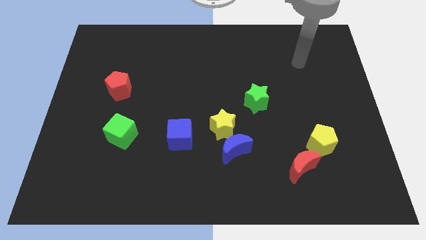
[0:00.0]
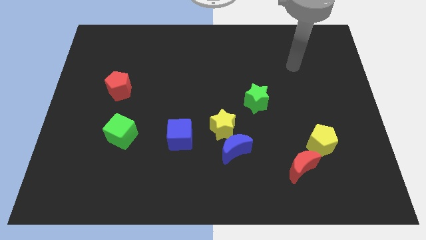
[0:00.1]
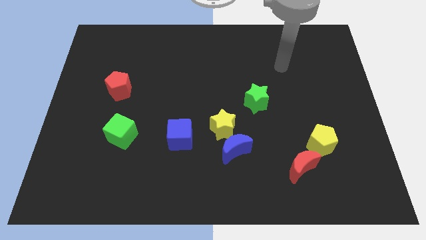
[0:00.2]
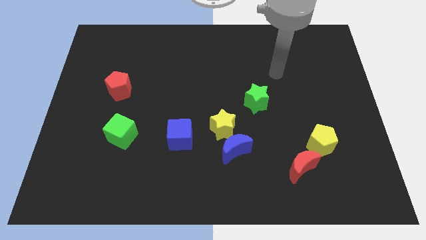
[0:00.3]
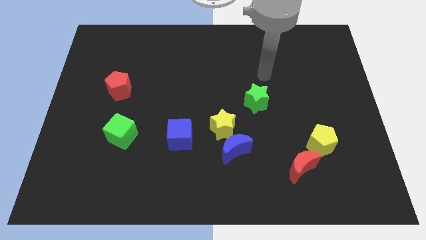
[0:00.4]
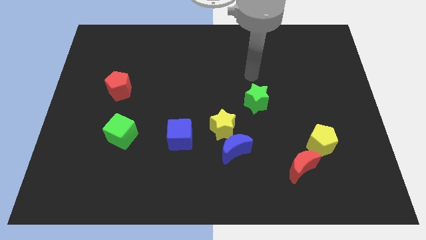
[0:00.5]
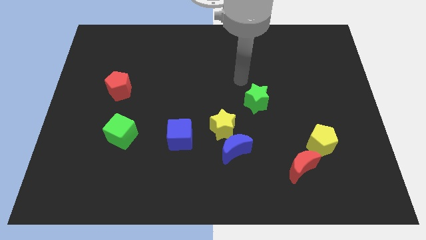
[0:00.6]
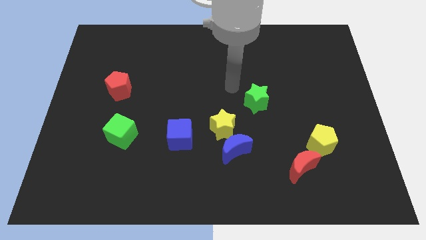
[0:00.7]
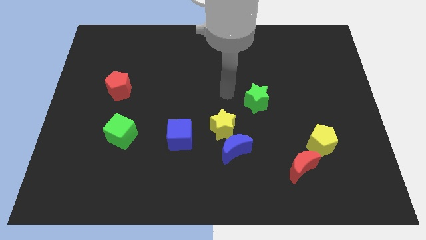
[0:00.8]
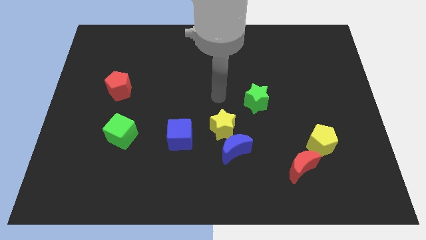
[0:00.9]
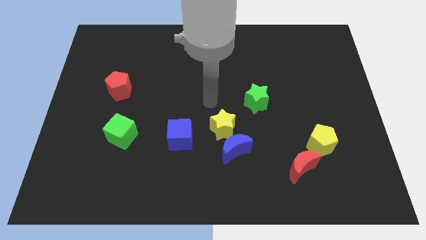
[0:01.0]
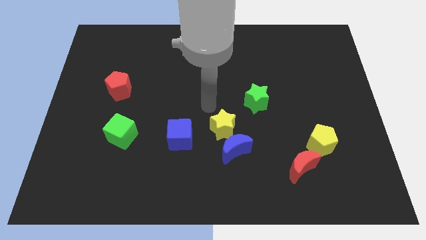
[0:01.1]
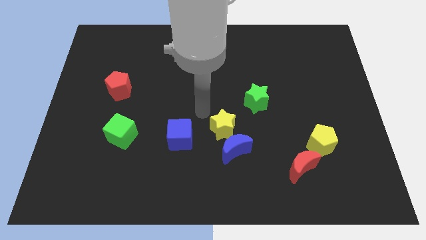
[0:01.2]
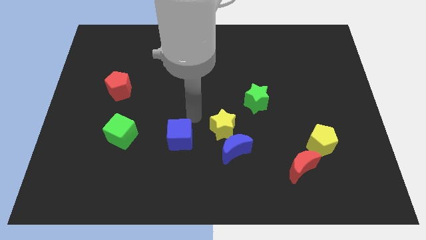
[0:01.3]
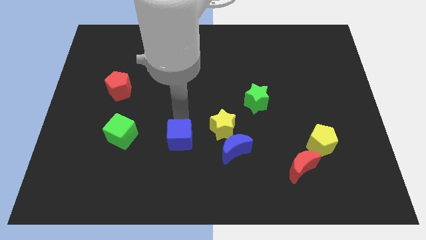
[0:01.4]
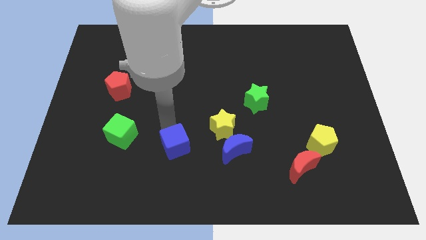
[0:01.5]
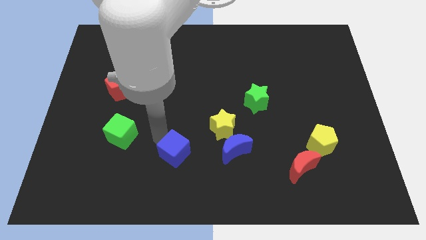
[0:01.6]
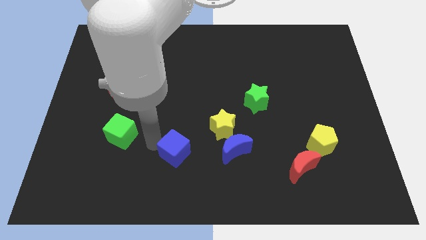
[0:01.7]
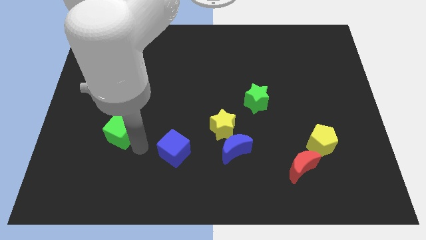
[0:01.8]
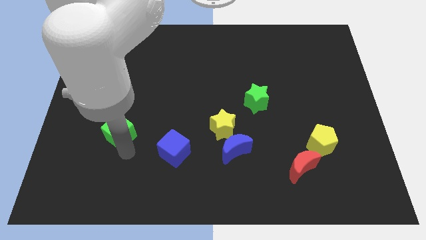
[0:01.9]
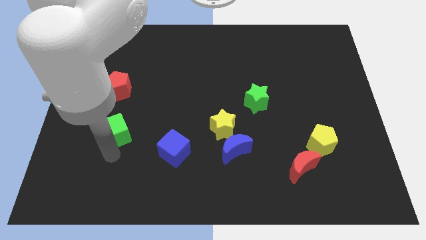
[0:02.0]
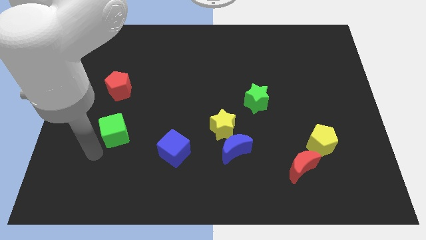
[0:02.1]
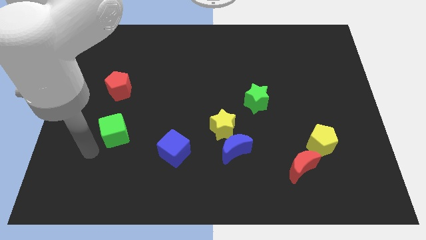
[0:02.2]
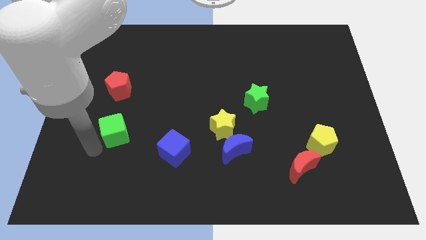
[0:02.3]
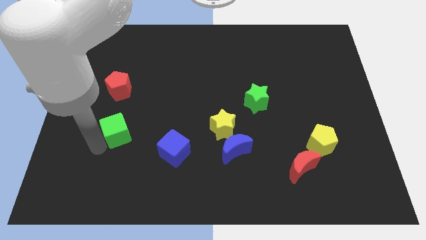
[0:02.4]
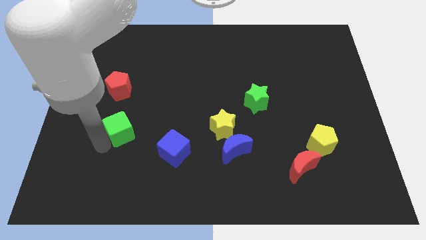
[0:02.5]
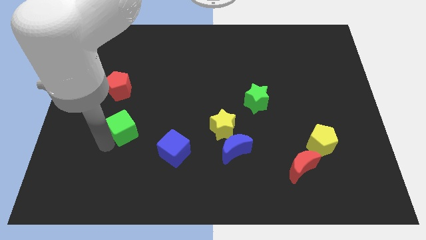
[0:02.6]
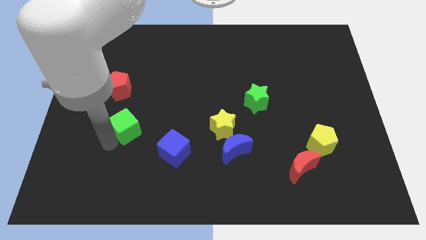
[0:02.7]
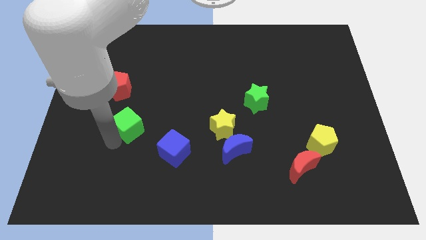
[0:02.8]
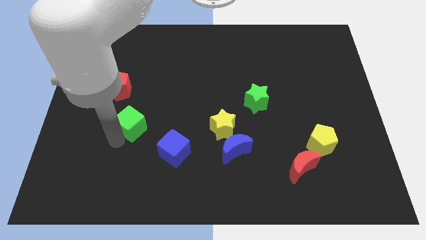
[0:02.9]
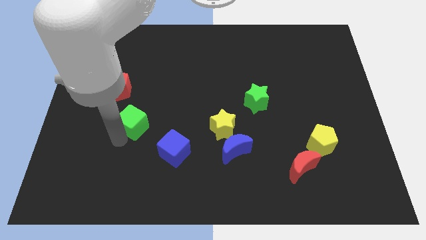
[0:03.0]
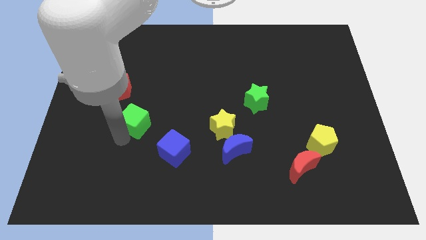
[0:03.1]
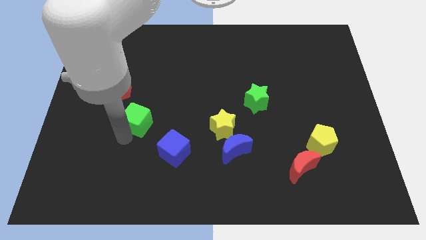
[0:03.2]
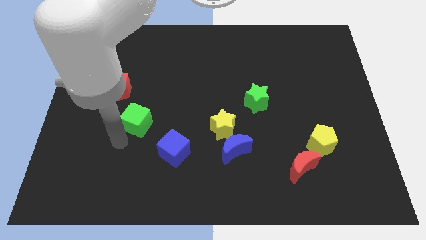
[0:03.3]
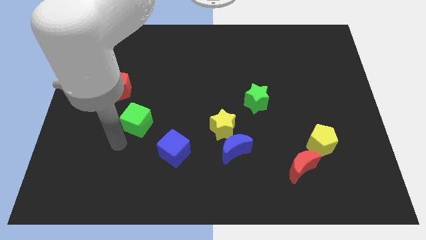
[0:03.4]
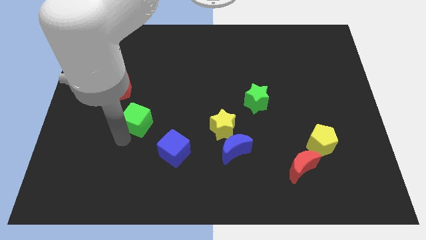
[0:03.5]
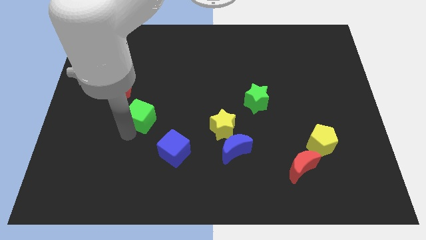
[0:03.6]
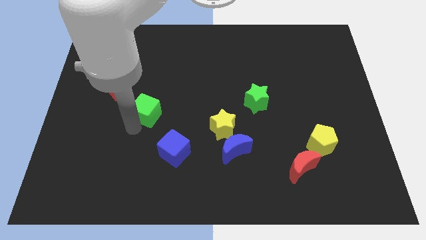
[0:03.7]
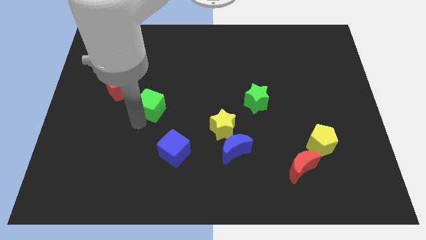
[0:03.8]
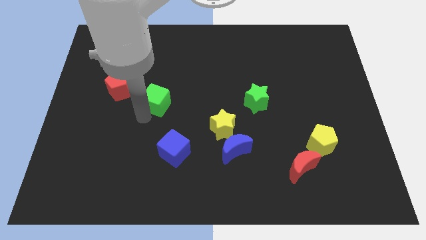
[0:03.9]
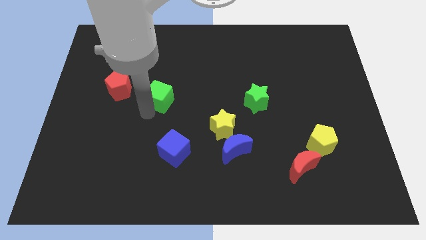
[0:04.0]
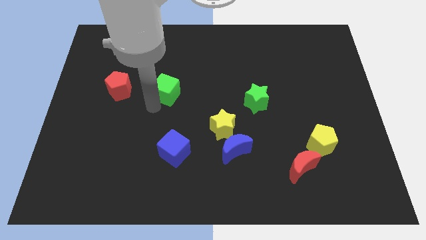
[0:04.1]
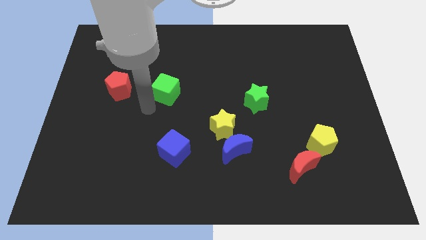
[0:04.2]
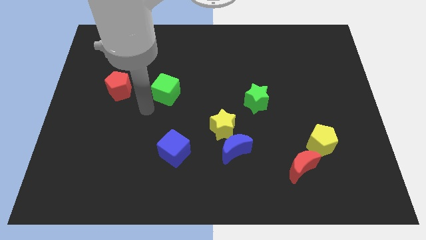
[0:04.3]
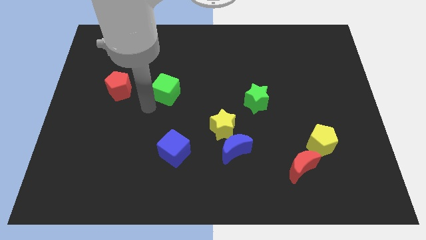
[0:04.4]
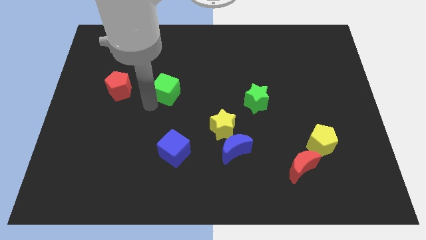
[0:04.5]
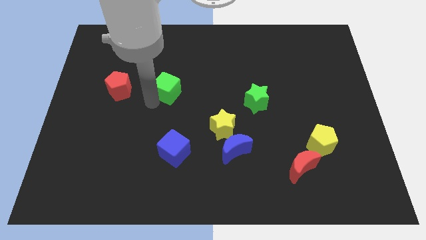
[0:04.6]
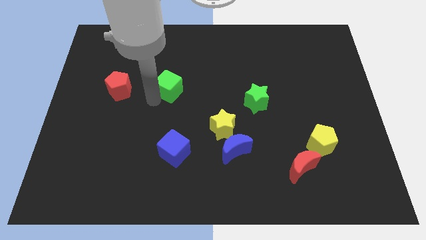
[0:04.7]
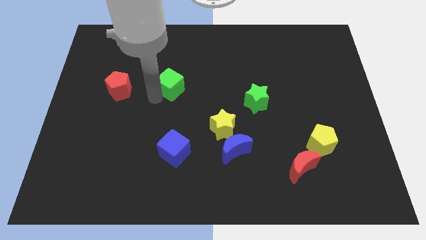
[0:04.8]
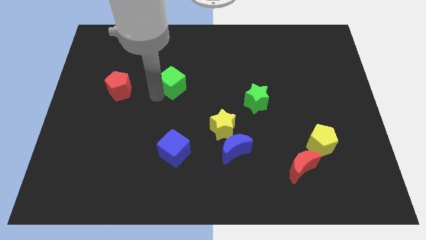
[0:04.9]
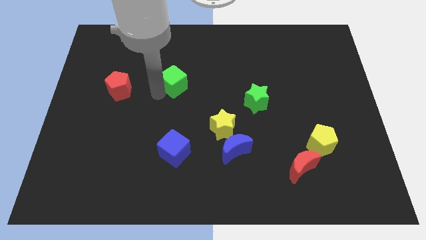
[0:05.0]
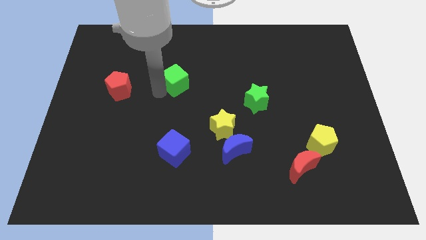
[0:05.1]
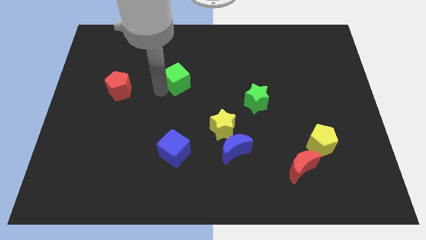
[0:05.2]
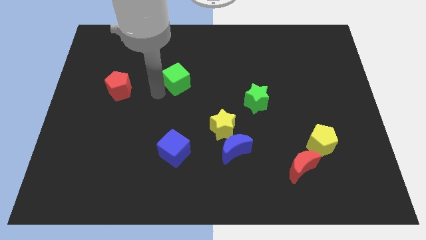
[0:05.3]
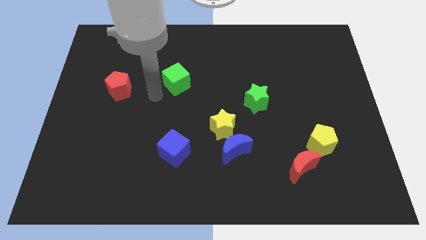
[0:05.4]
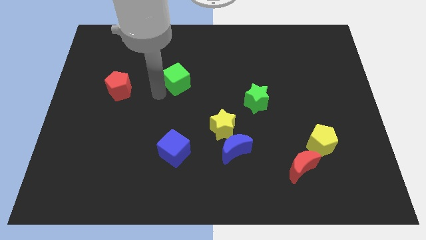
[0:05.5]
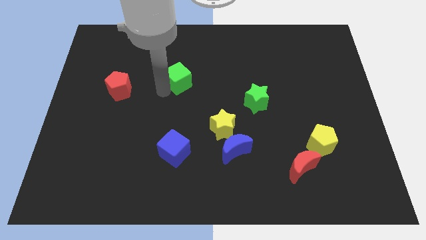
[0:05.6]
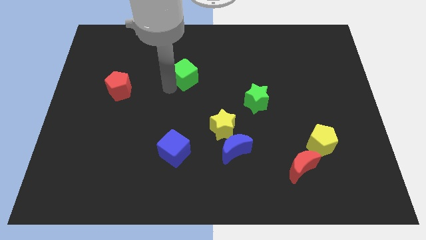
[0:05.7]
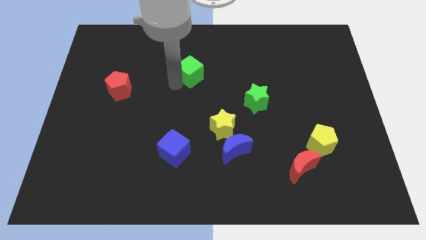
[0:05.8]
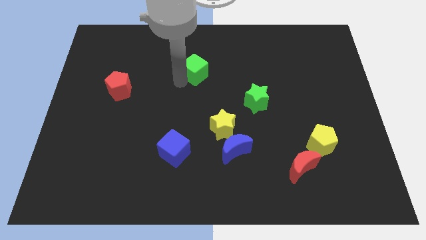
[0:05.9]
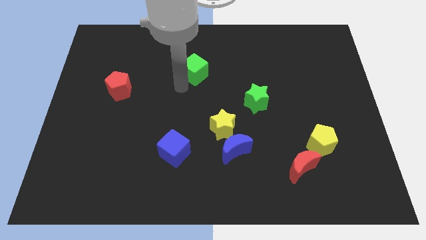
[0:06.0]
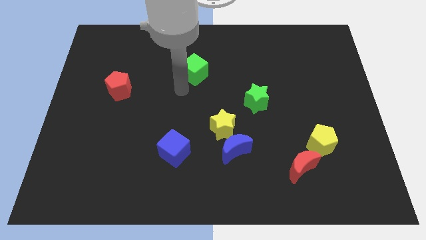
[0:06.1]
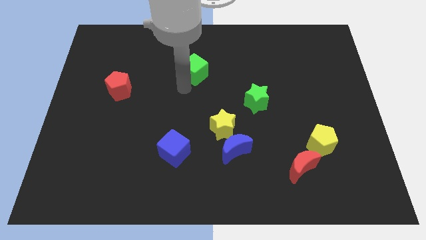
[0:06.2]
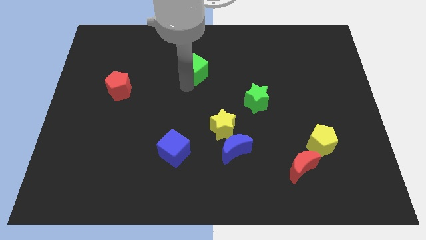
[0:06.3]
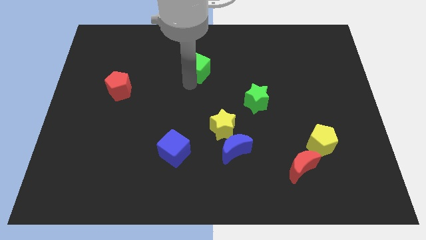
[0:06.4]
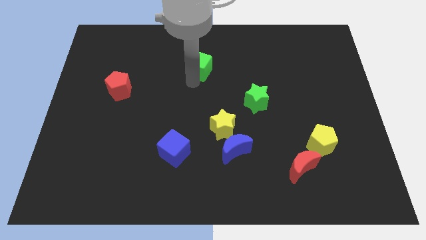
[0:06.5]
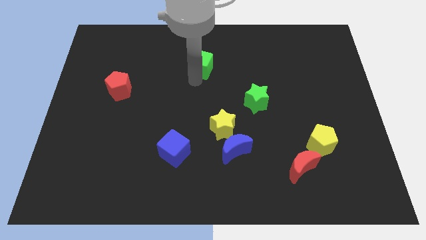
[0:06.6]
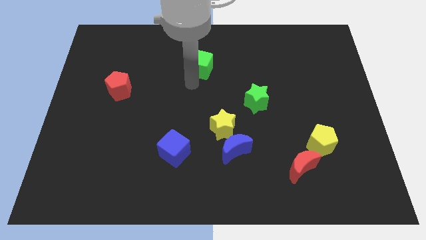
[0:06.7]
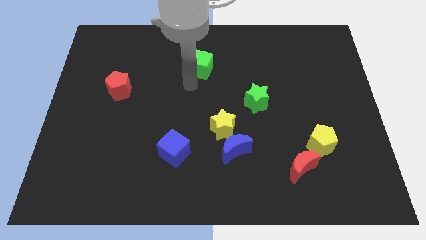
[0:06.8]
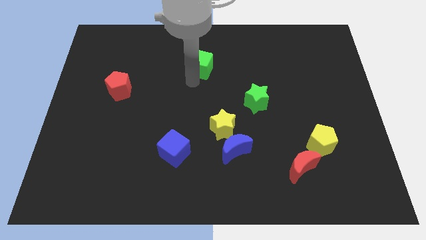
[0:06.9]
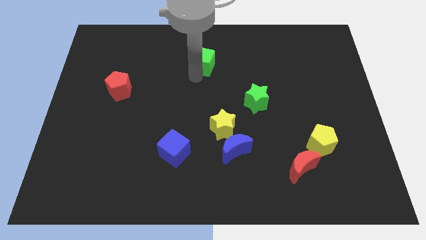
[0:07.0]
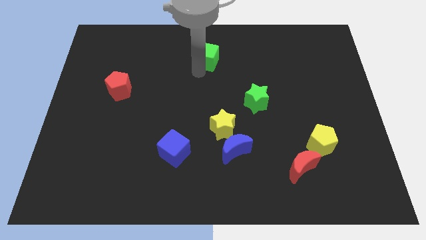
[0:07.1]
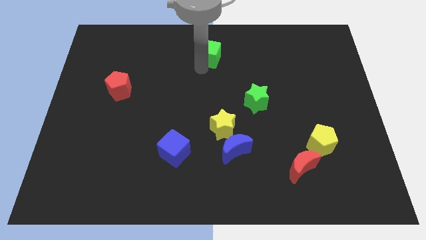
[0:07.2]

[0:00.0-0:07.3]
move the green cube to the top side
